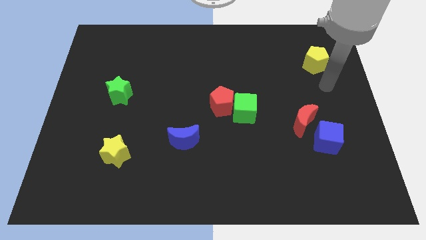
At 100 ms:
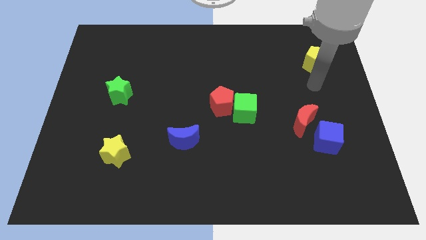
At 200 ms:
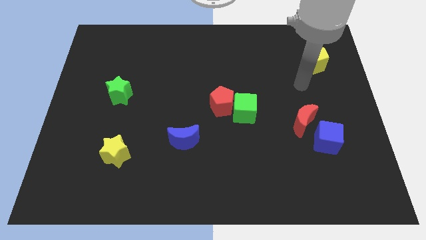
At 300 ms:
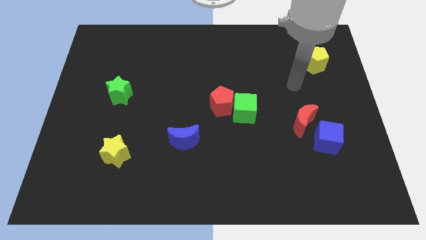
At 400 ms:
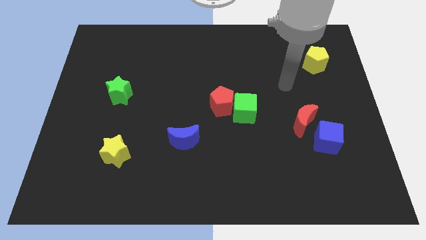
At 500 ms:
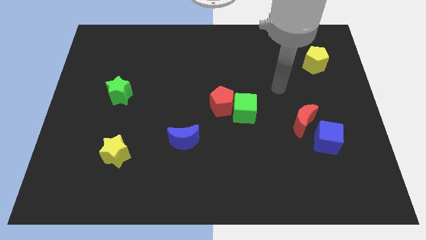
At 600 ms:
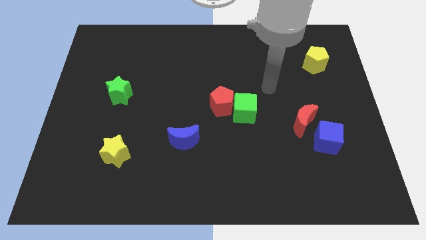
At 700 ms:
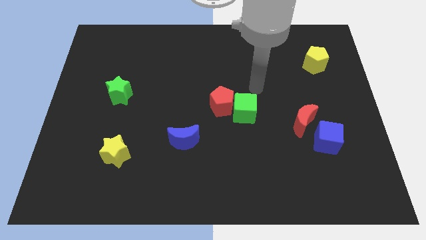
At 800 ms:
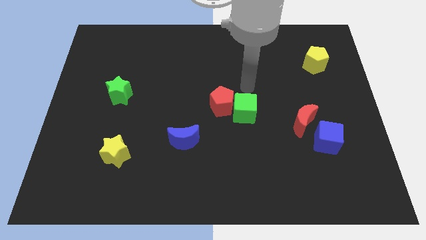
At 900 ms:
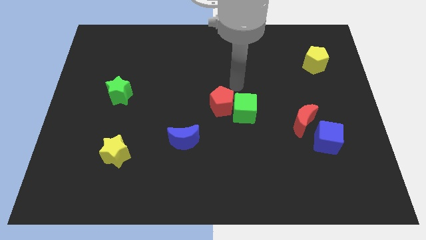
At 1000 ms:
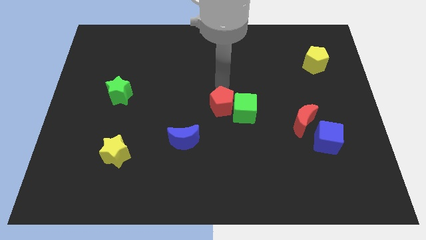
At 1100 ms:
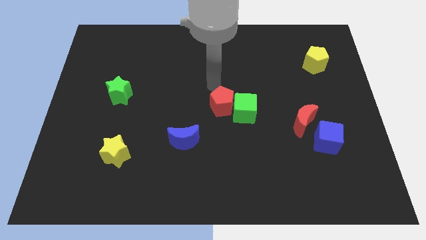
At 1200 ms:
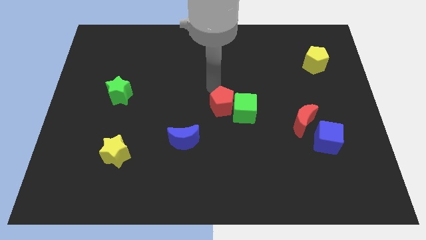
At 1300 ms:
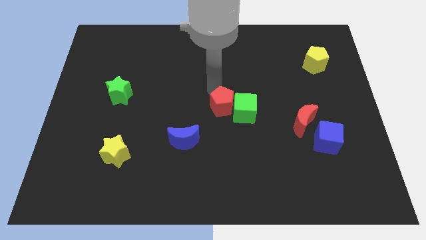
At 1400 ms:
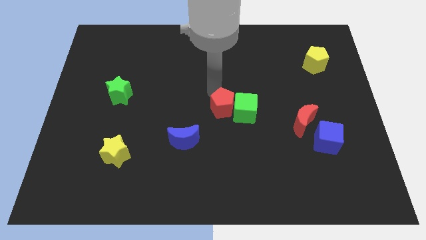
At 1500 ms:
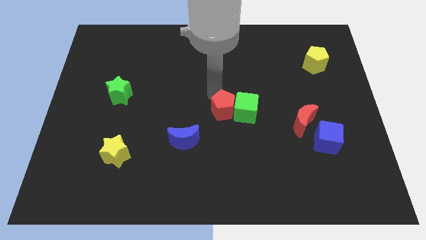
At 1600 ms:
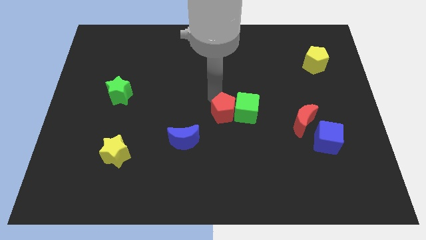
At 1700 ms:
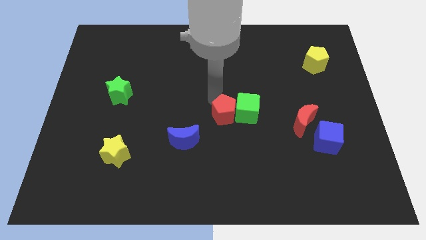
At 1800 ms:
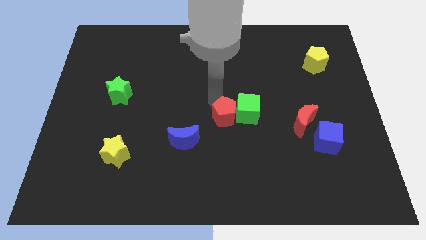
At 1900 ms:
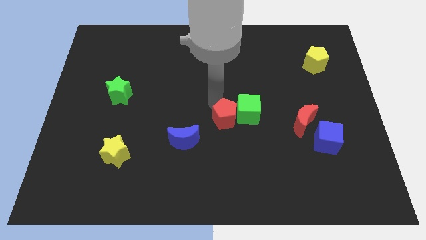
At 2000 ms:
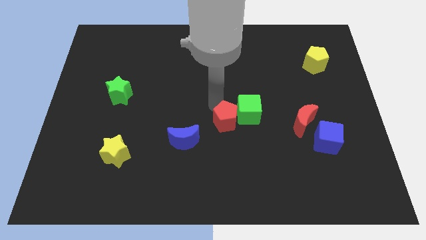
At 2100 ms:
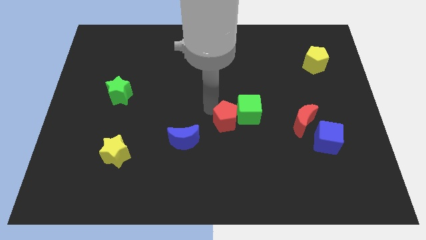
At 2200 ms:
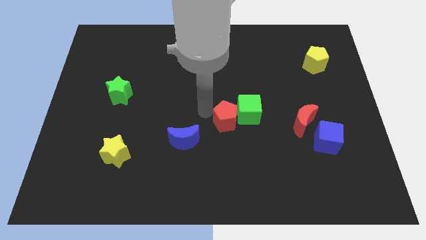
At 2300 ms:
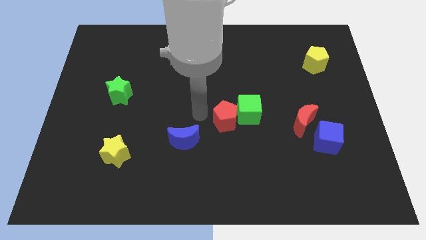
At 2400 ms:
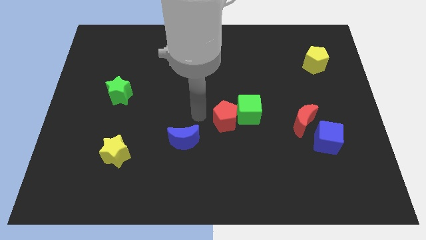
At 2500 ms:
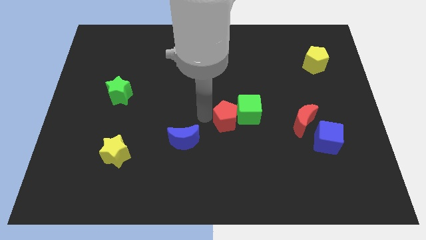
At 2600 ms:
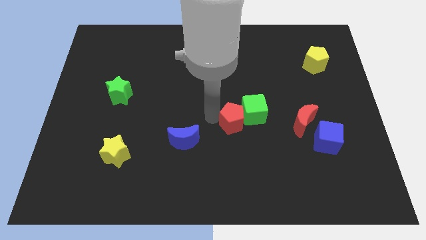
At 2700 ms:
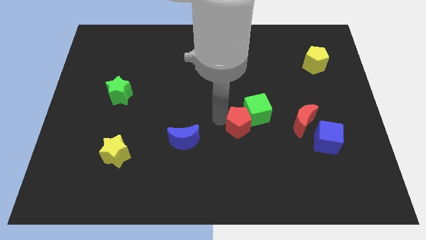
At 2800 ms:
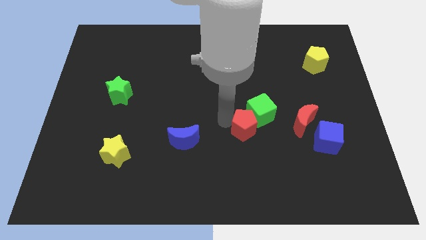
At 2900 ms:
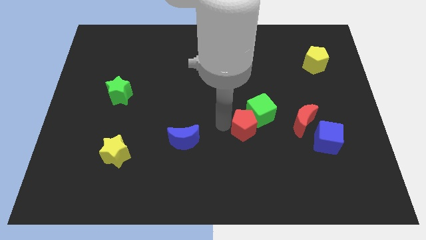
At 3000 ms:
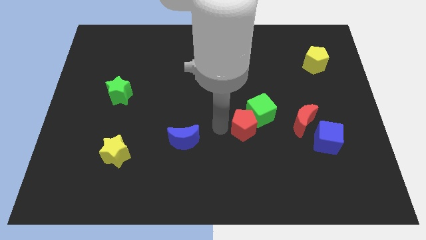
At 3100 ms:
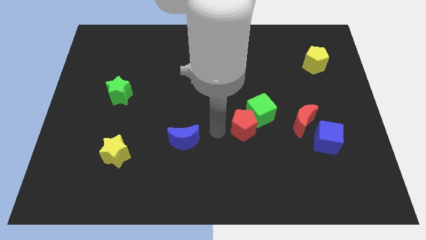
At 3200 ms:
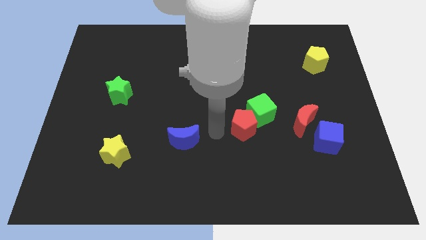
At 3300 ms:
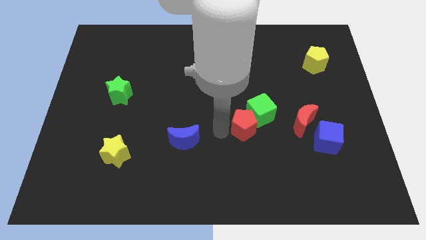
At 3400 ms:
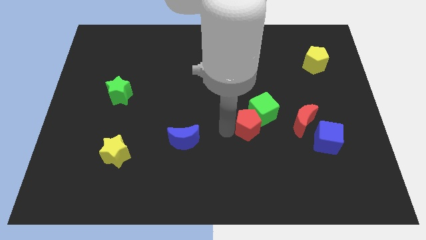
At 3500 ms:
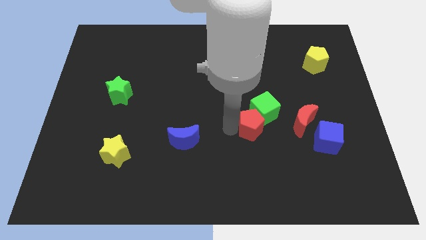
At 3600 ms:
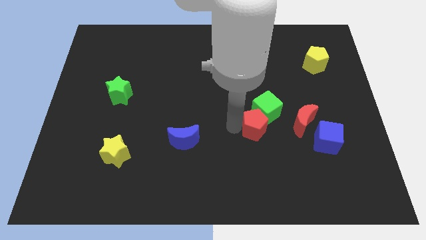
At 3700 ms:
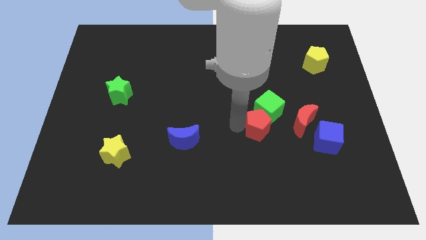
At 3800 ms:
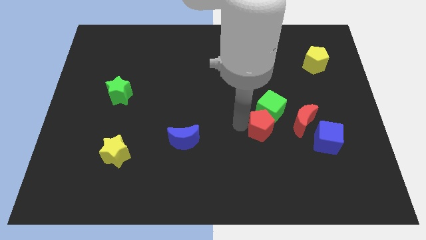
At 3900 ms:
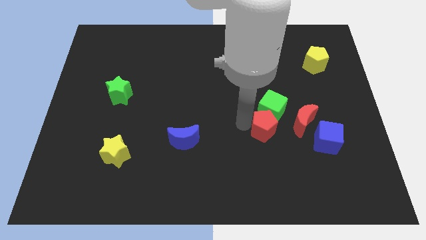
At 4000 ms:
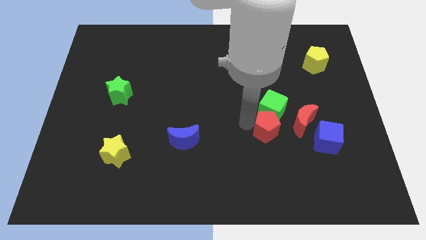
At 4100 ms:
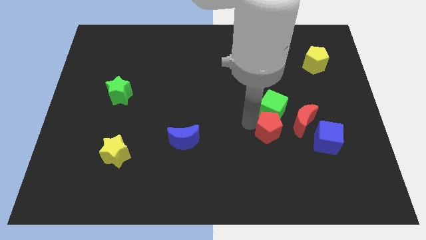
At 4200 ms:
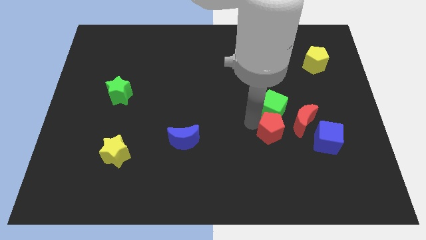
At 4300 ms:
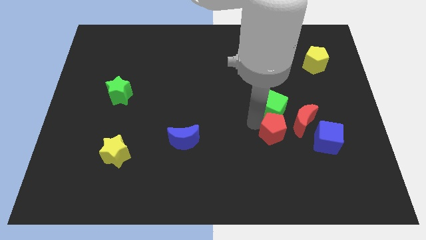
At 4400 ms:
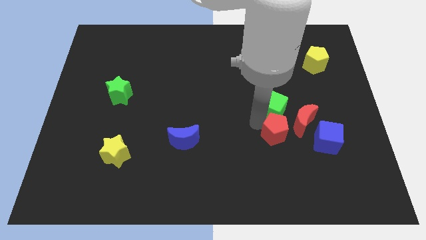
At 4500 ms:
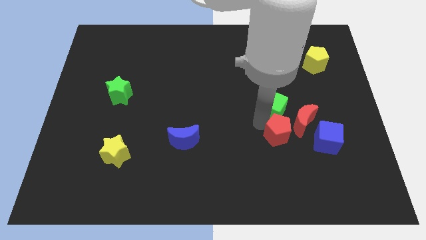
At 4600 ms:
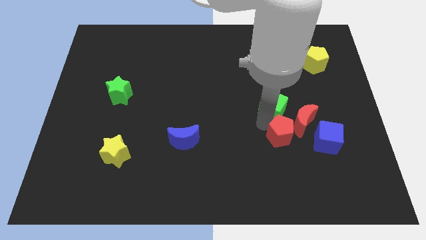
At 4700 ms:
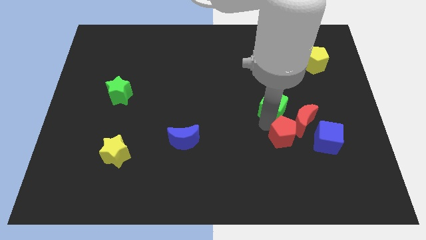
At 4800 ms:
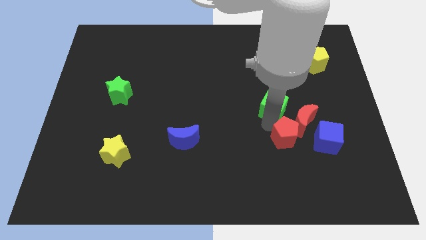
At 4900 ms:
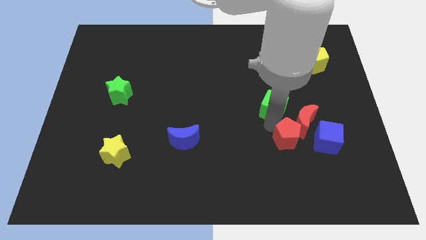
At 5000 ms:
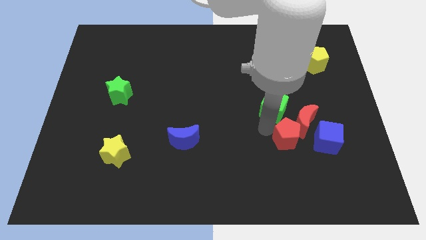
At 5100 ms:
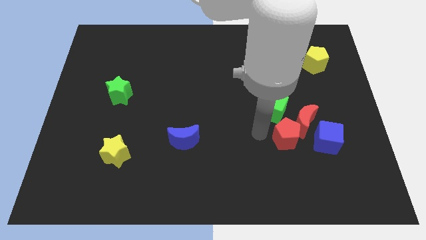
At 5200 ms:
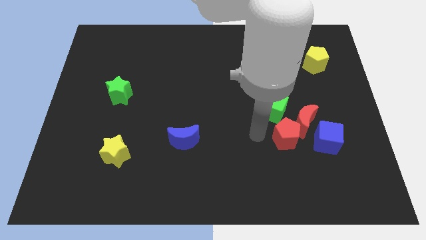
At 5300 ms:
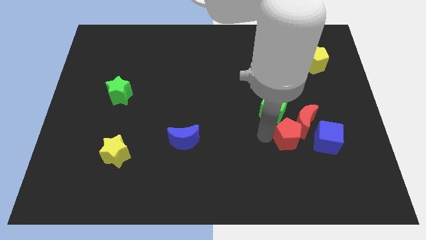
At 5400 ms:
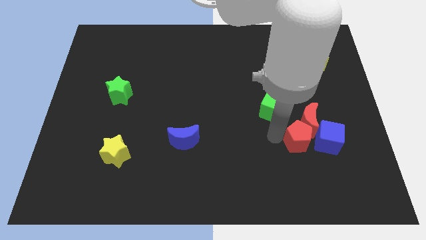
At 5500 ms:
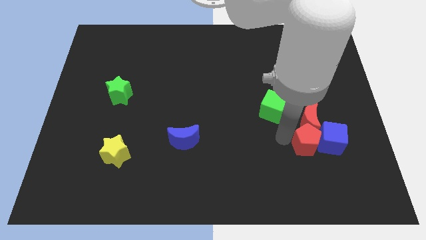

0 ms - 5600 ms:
slide the red pentagon to the blue cube

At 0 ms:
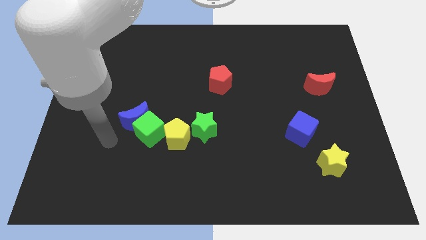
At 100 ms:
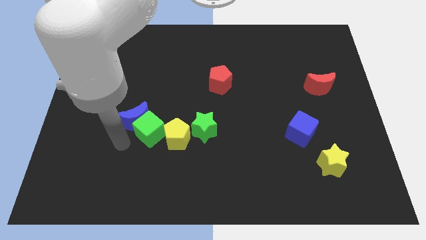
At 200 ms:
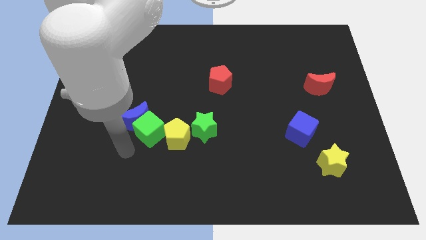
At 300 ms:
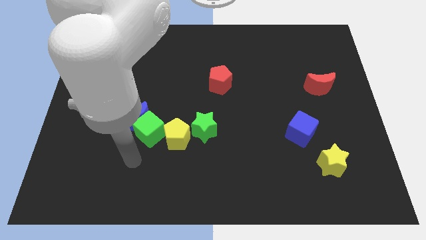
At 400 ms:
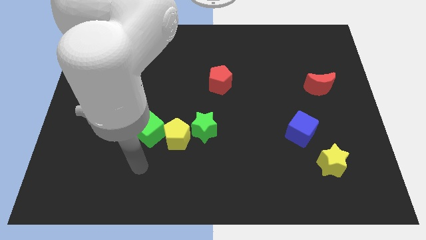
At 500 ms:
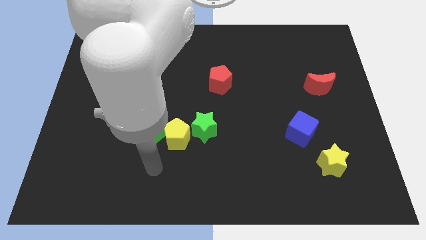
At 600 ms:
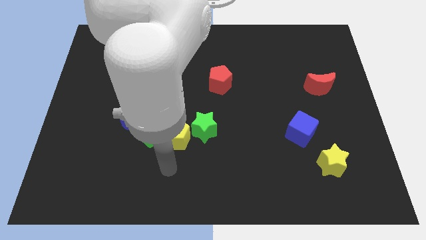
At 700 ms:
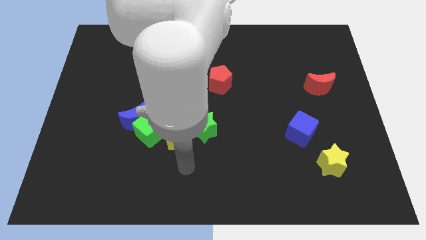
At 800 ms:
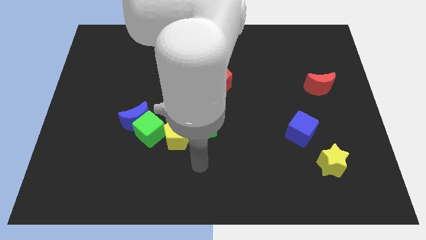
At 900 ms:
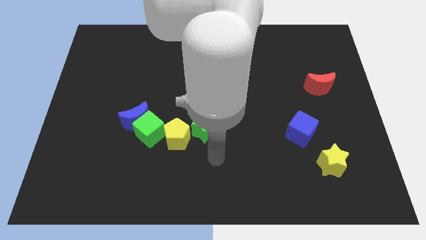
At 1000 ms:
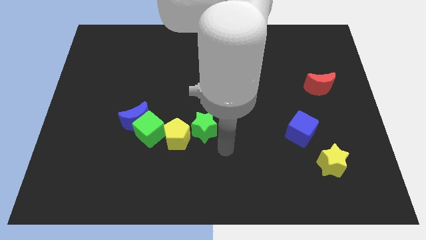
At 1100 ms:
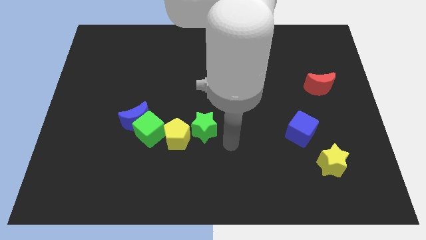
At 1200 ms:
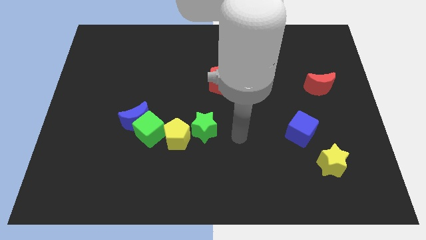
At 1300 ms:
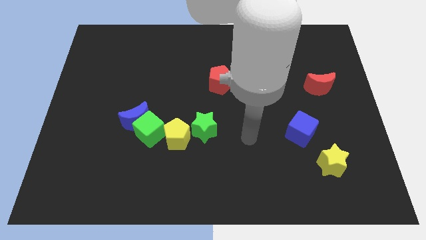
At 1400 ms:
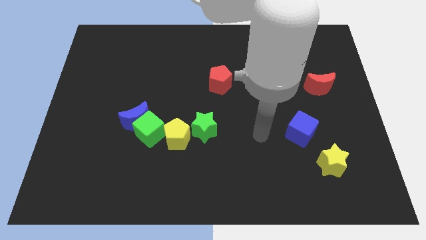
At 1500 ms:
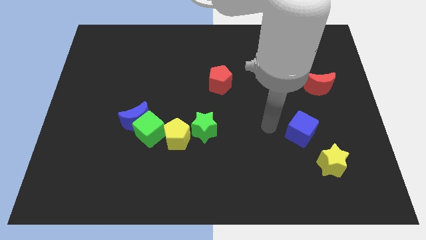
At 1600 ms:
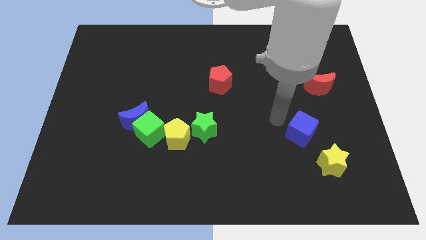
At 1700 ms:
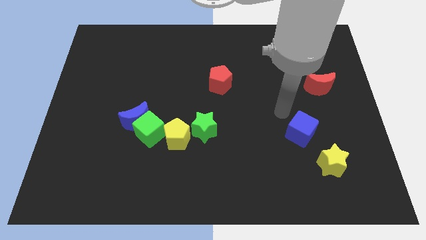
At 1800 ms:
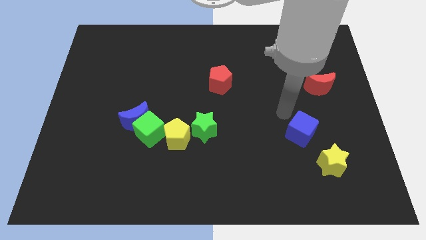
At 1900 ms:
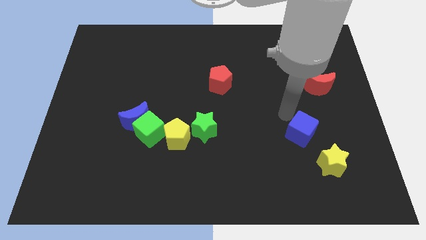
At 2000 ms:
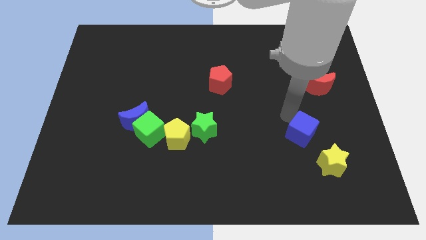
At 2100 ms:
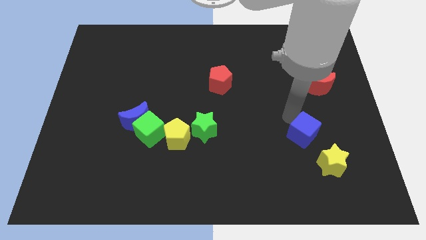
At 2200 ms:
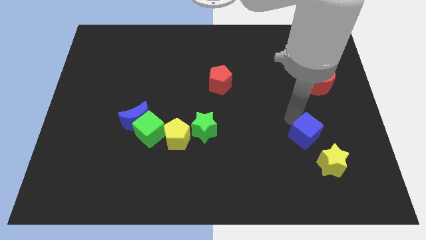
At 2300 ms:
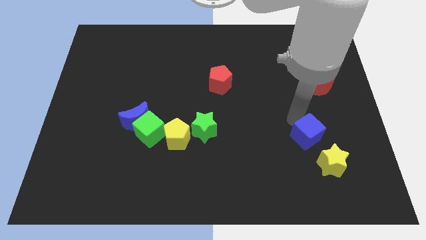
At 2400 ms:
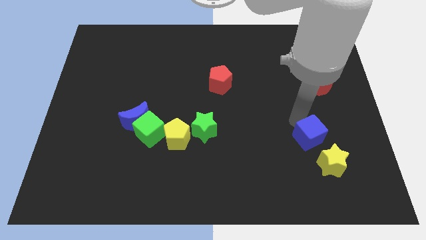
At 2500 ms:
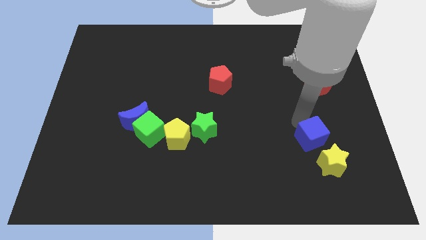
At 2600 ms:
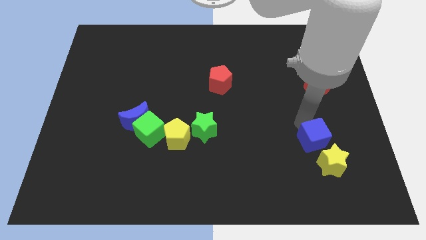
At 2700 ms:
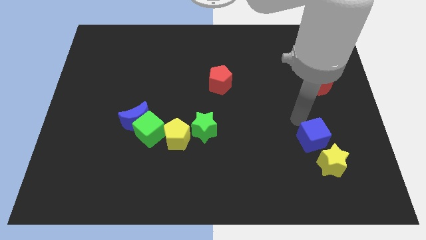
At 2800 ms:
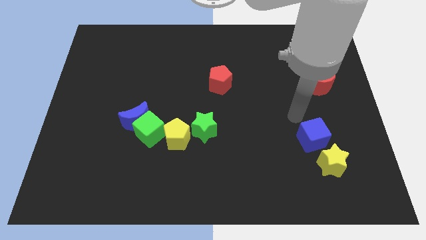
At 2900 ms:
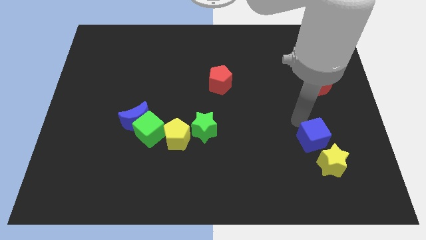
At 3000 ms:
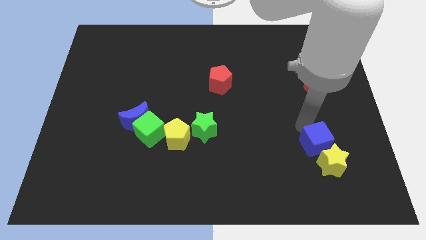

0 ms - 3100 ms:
slide the blue cube towards the yellow star
